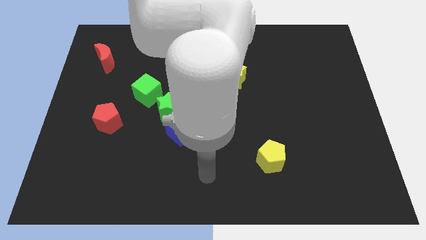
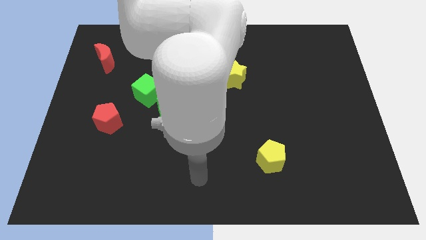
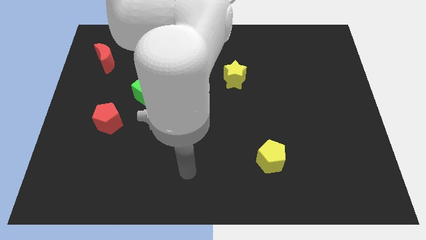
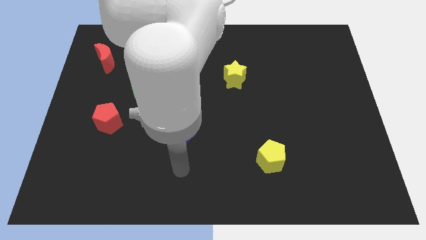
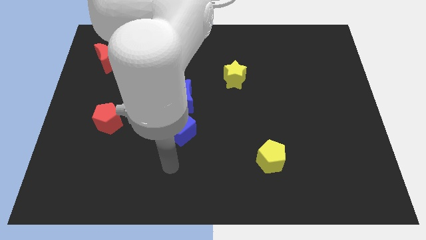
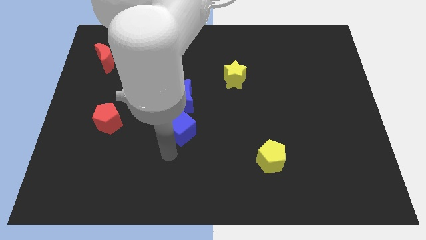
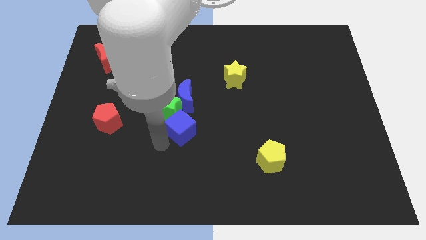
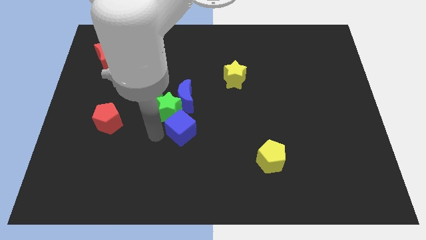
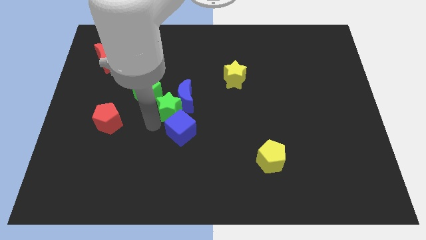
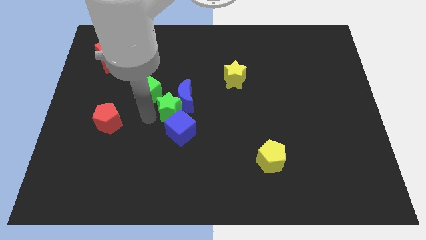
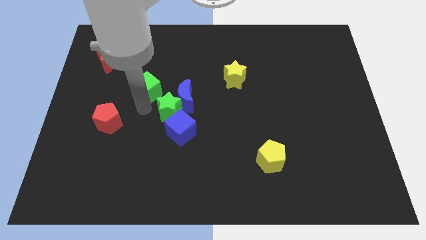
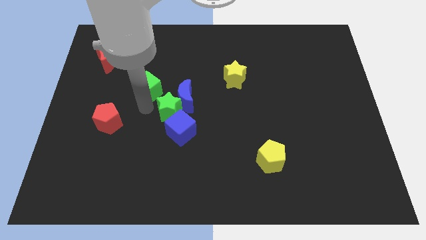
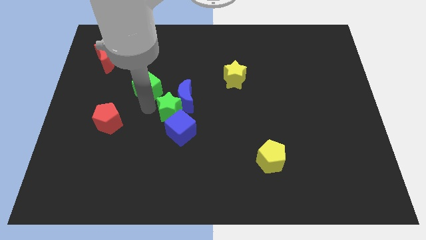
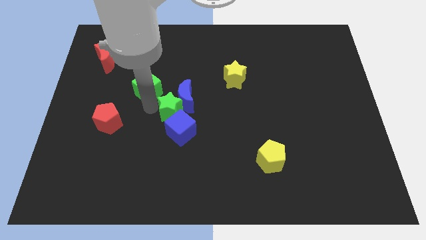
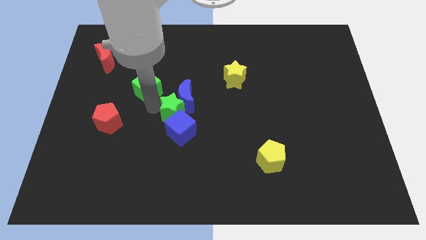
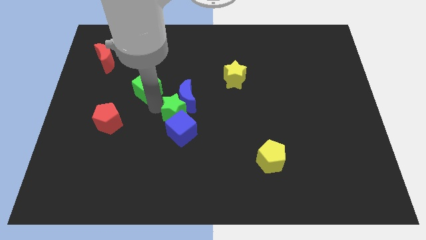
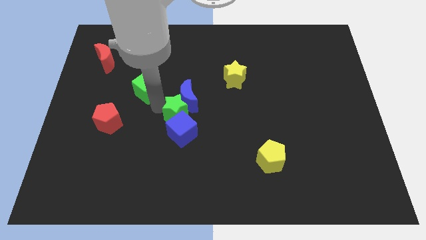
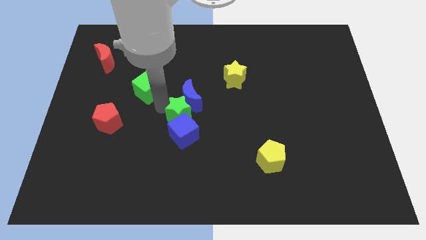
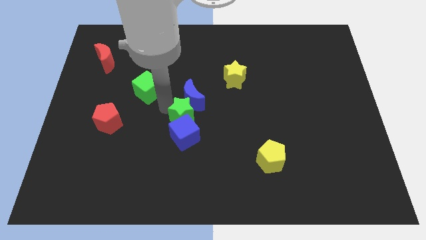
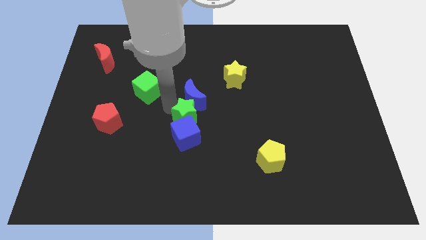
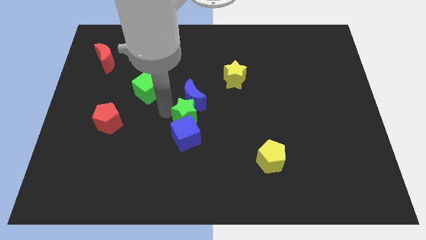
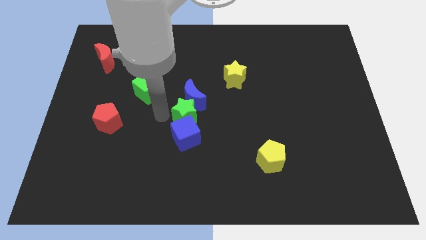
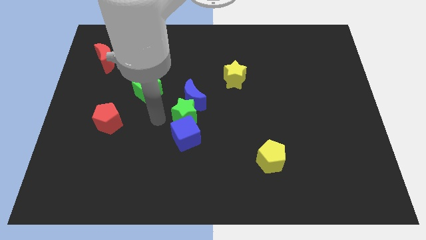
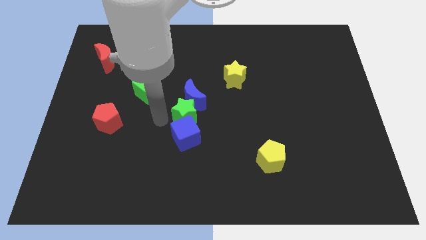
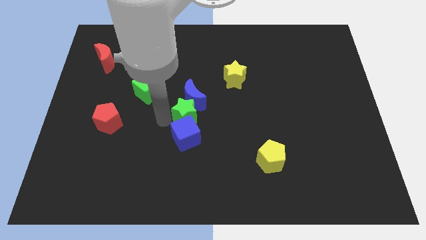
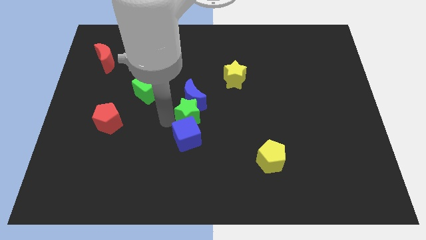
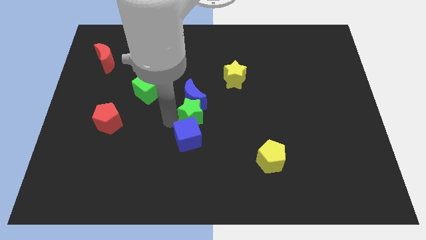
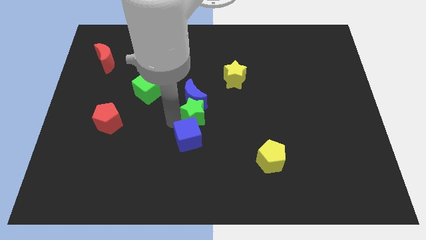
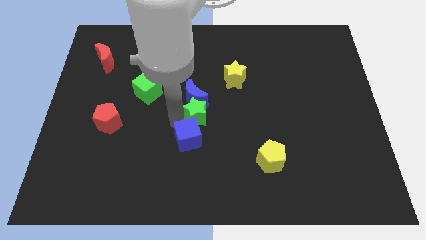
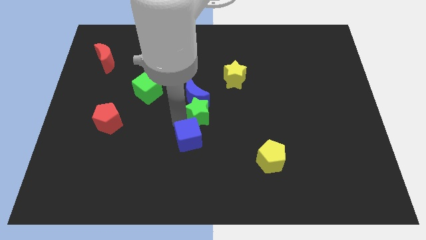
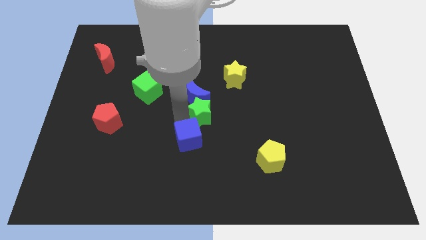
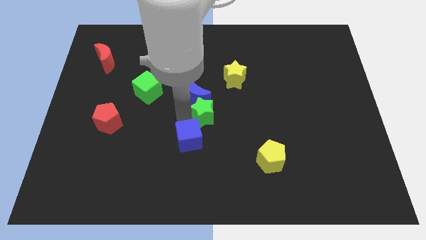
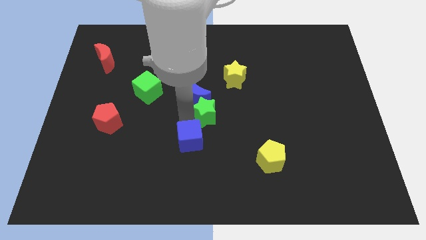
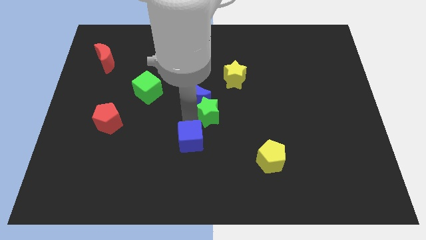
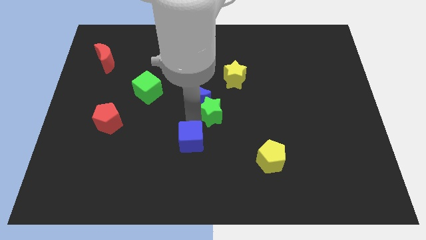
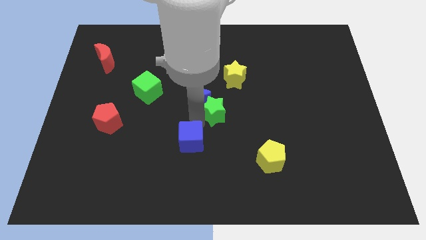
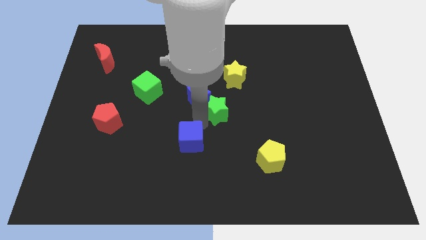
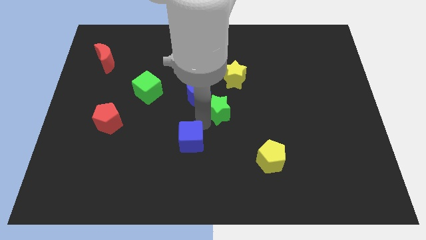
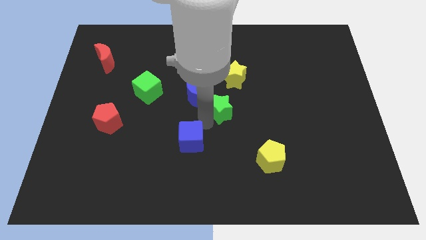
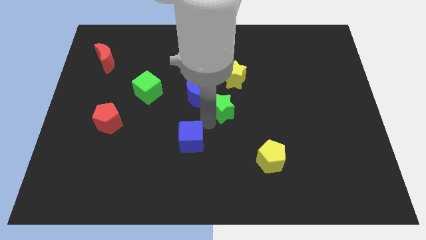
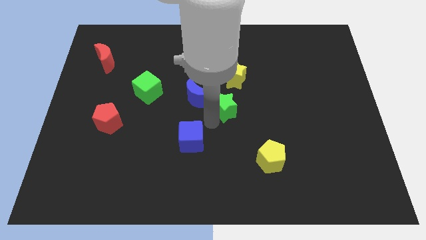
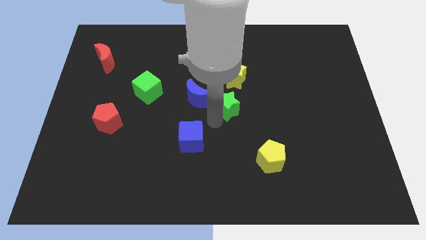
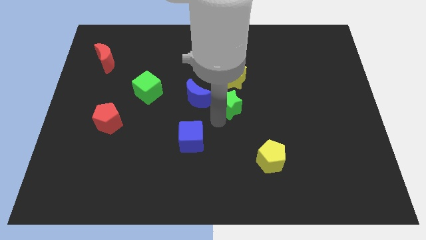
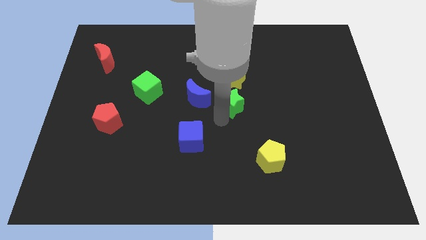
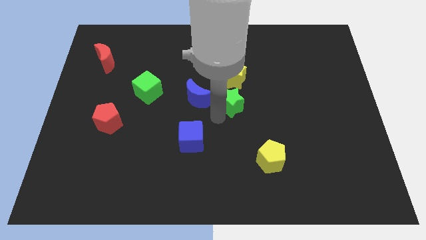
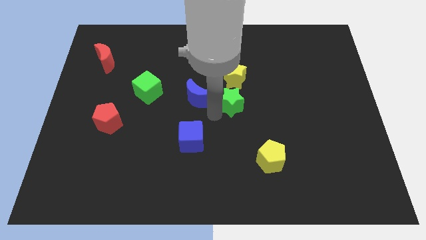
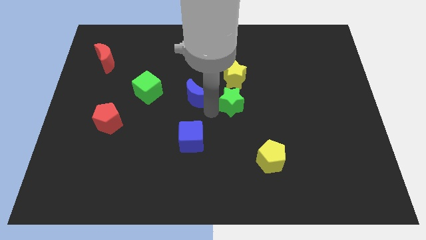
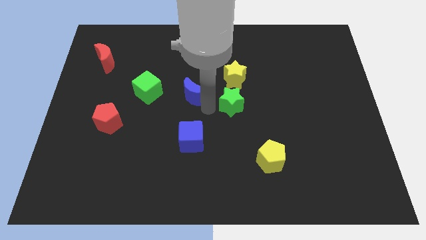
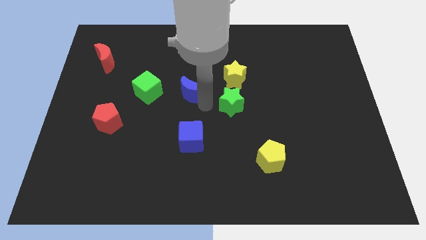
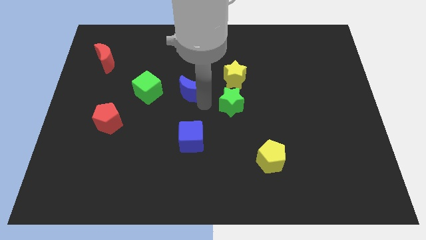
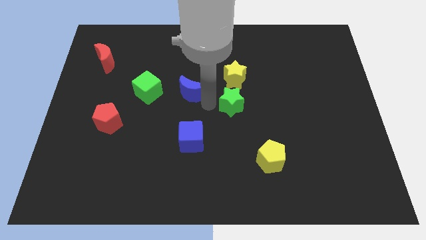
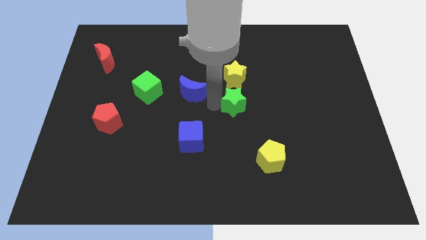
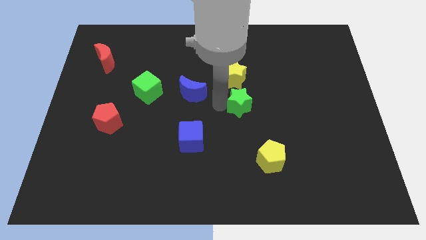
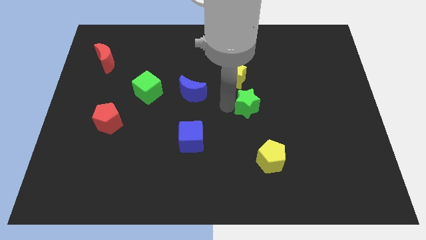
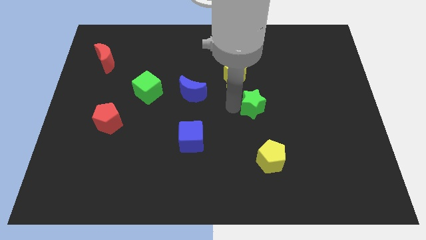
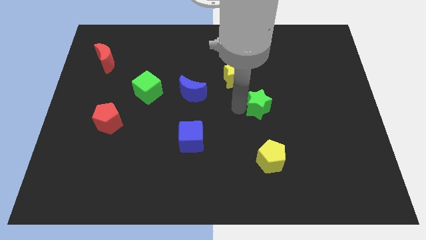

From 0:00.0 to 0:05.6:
move the green star to the right

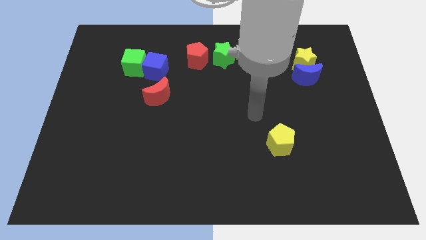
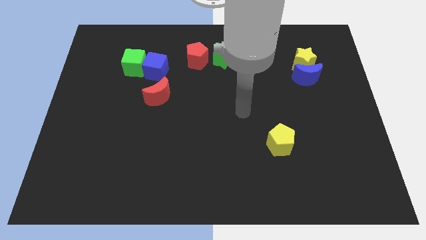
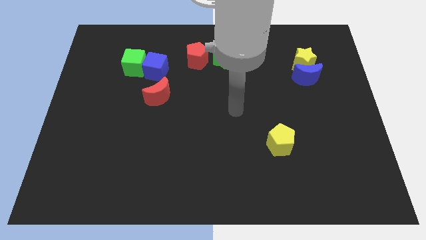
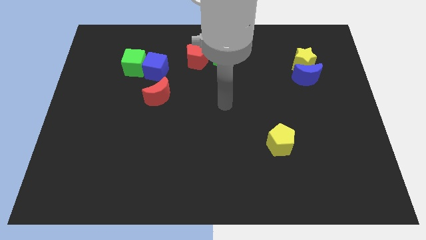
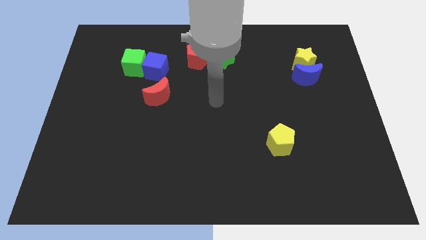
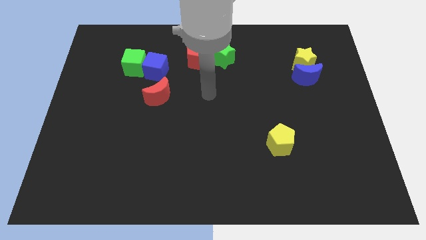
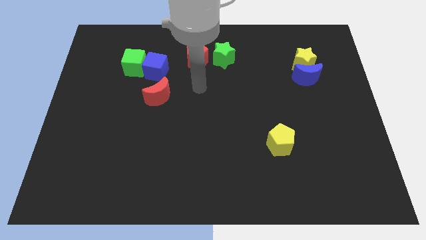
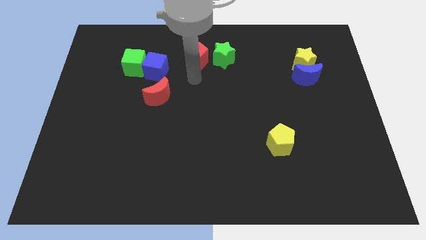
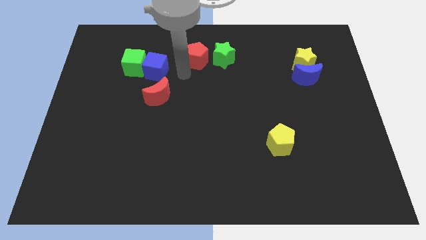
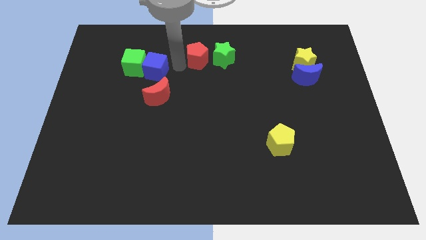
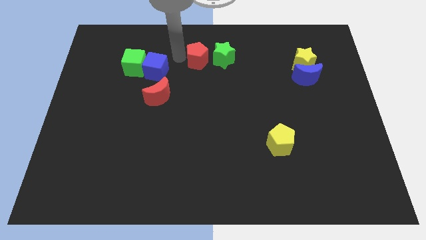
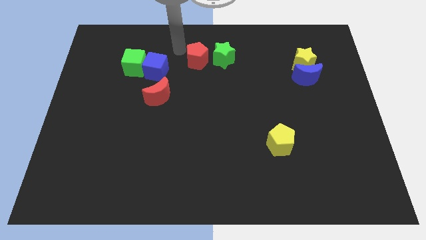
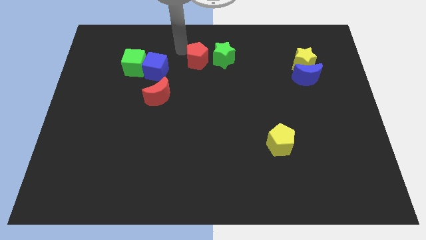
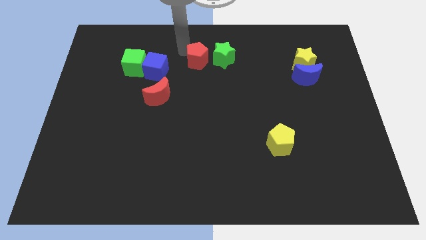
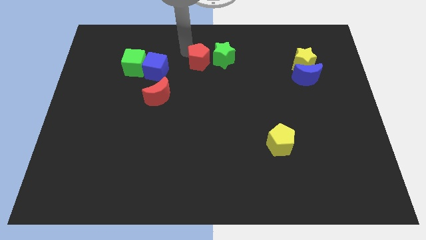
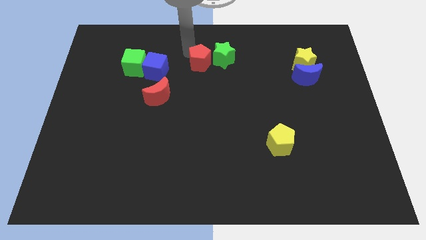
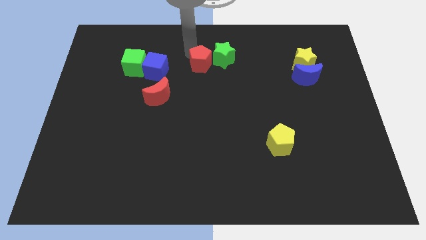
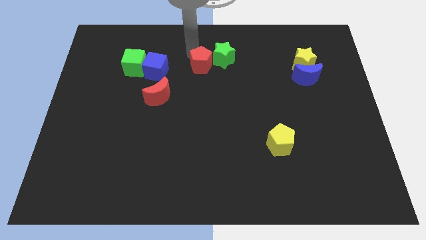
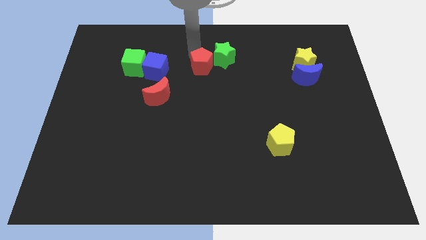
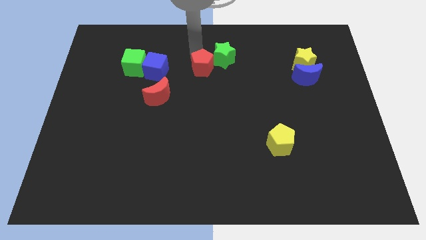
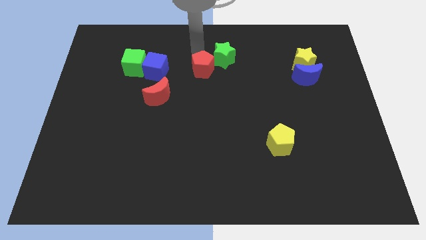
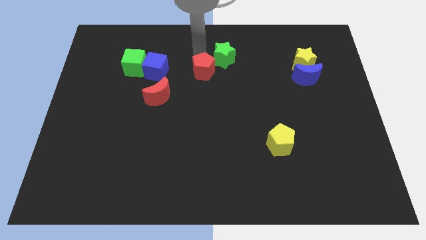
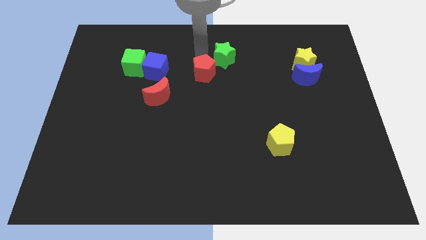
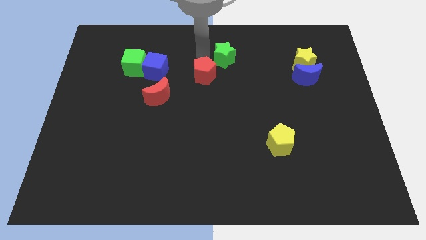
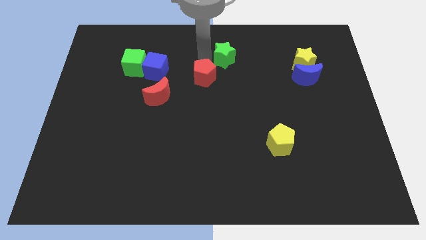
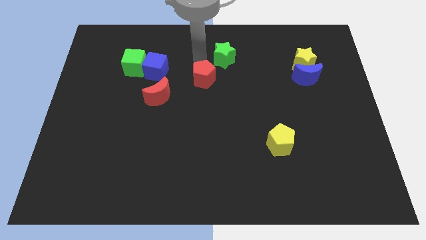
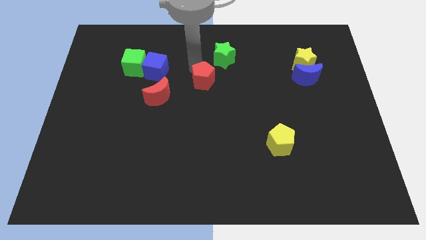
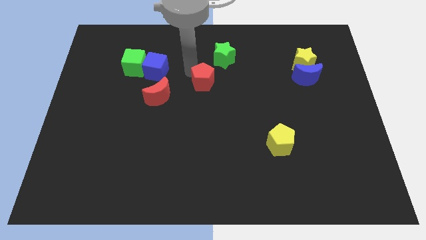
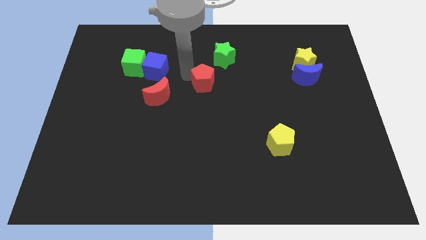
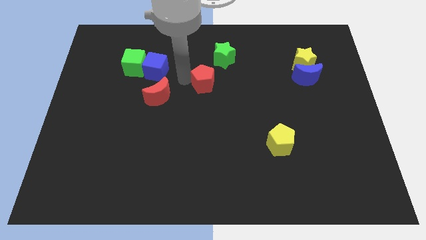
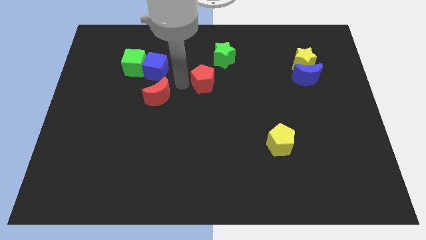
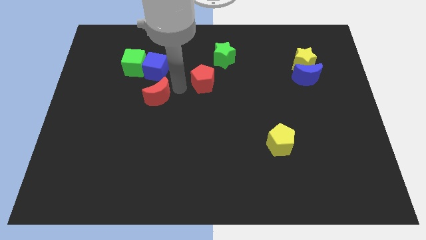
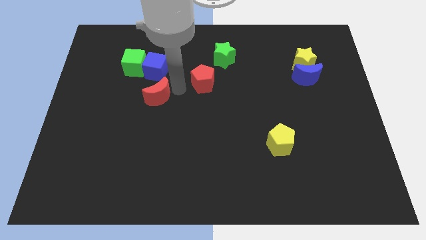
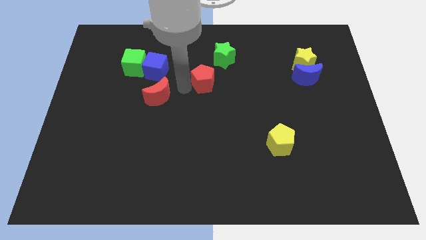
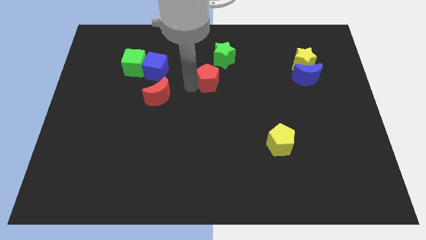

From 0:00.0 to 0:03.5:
slide the red pentagon a little downwards and then right
